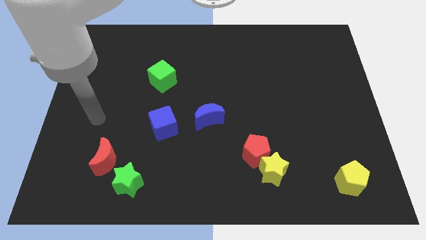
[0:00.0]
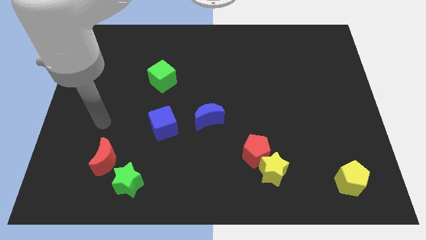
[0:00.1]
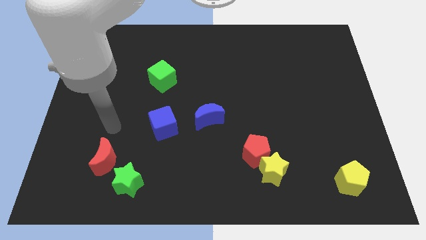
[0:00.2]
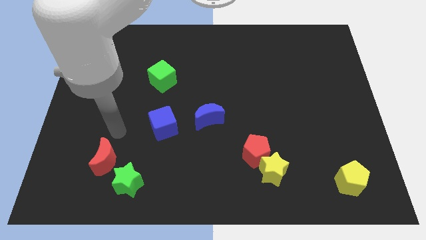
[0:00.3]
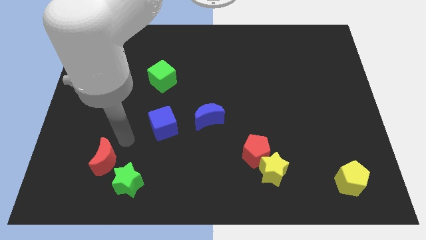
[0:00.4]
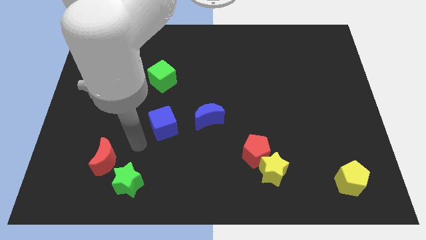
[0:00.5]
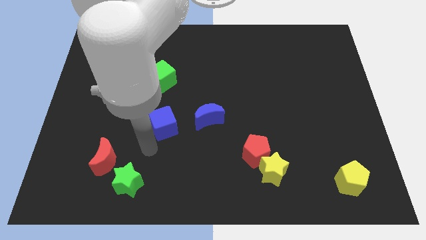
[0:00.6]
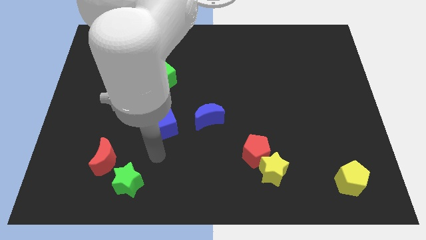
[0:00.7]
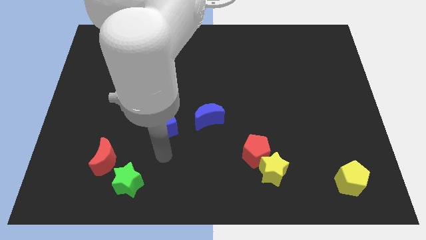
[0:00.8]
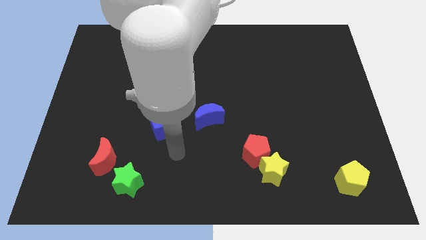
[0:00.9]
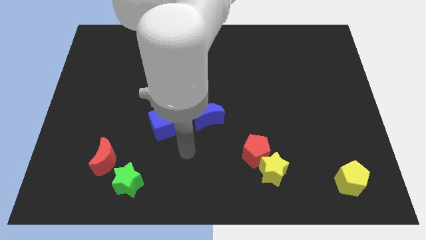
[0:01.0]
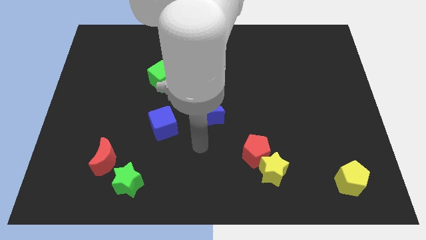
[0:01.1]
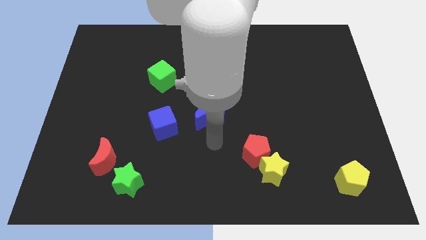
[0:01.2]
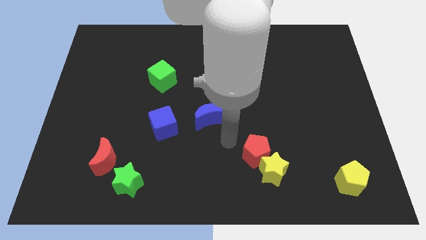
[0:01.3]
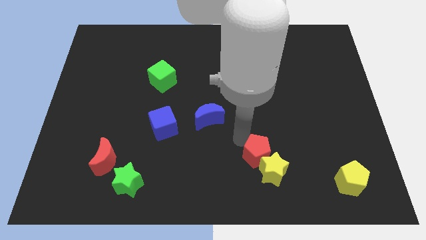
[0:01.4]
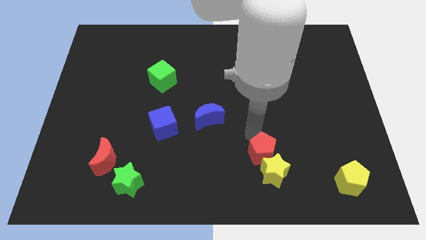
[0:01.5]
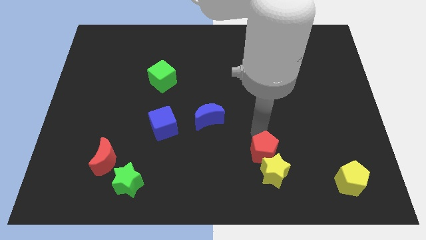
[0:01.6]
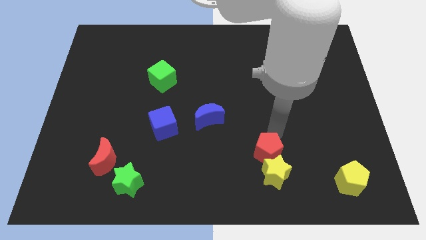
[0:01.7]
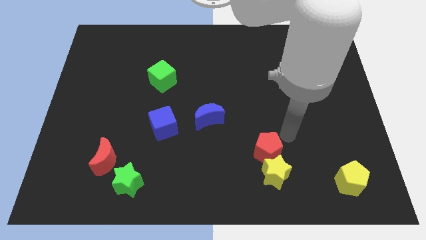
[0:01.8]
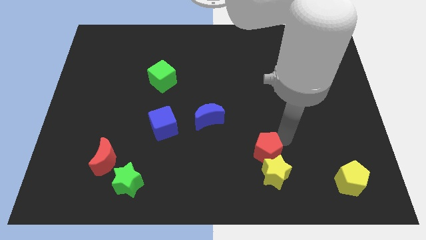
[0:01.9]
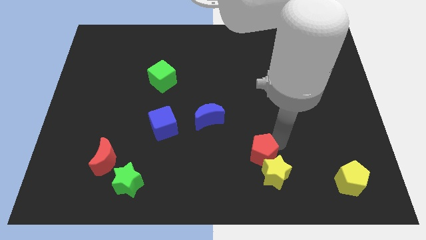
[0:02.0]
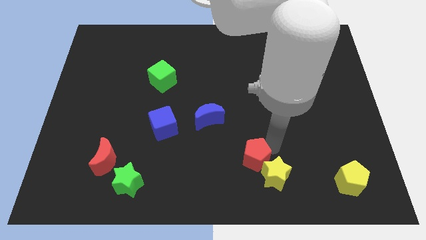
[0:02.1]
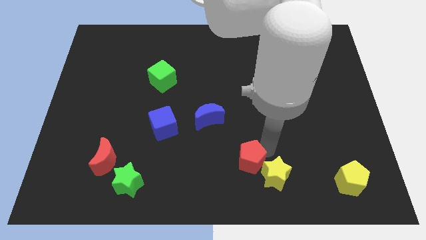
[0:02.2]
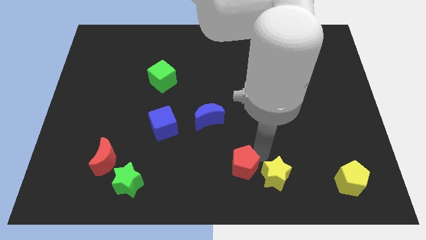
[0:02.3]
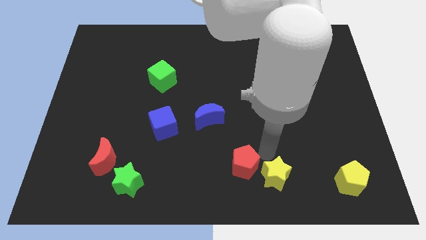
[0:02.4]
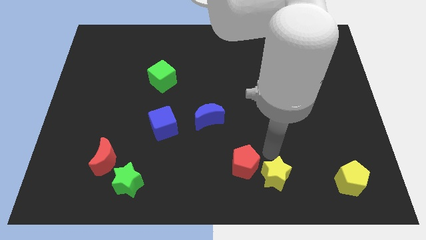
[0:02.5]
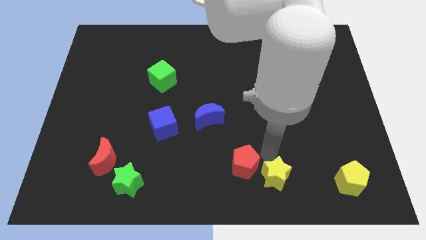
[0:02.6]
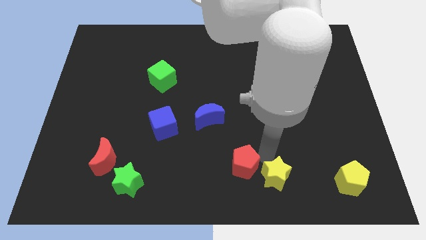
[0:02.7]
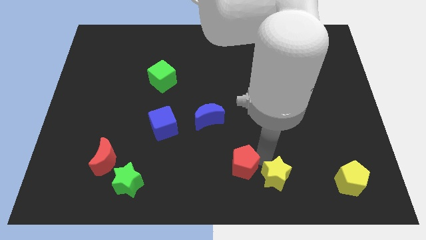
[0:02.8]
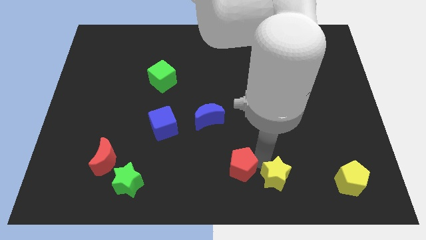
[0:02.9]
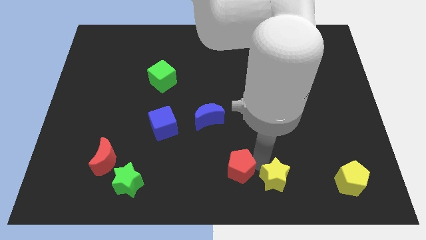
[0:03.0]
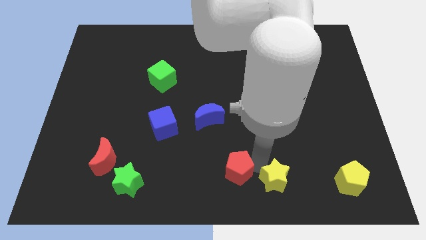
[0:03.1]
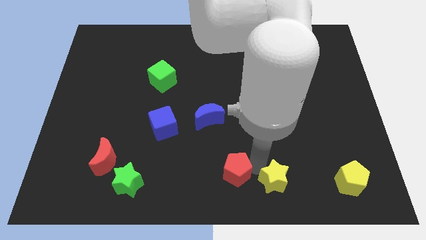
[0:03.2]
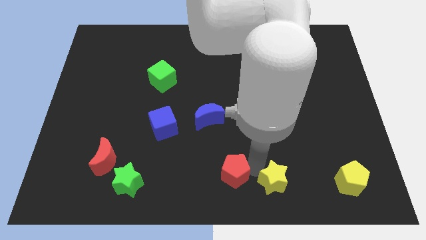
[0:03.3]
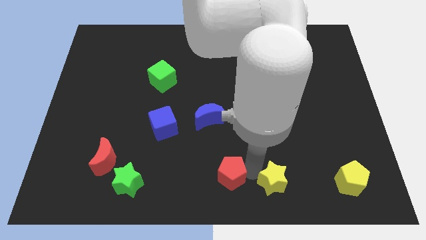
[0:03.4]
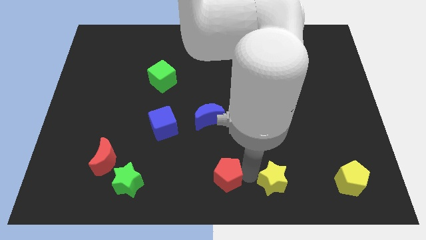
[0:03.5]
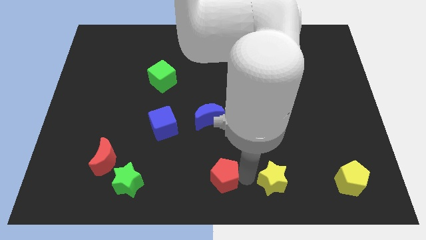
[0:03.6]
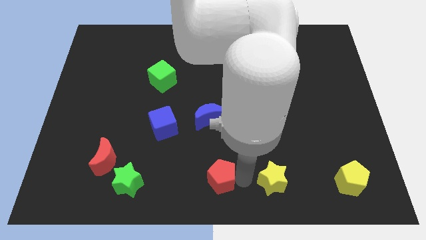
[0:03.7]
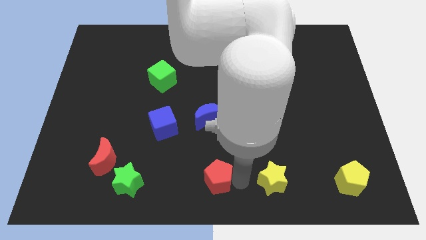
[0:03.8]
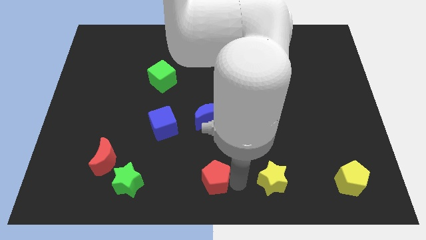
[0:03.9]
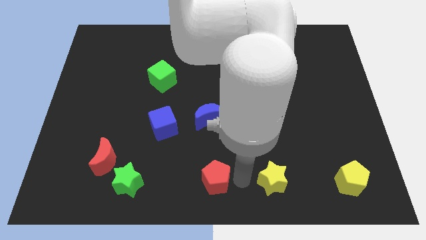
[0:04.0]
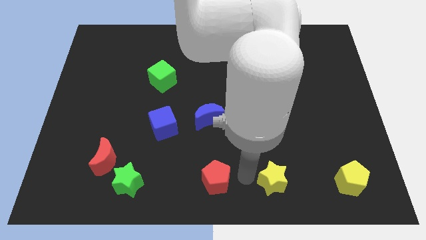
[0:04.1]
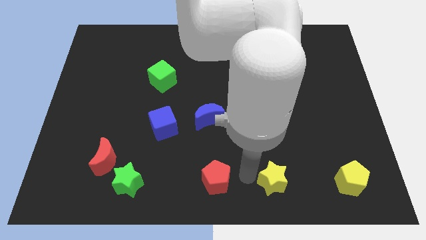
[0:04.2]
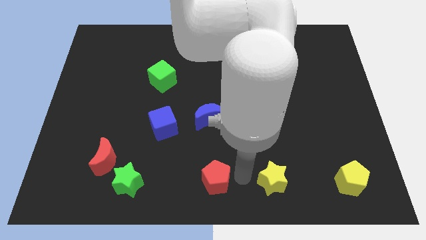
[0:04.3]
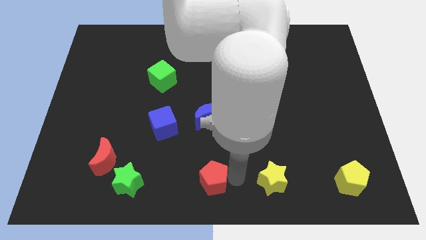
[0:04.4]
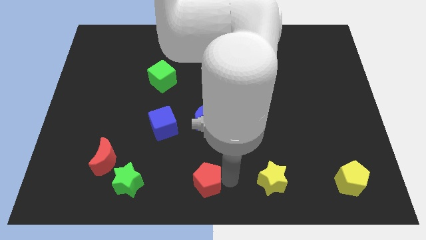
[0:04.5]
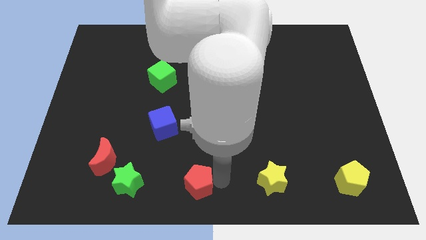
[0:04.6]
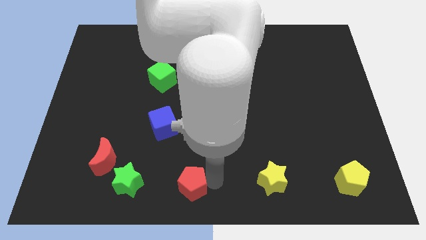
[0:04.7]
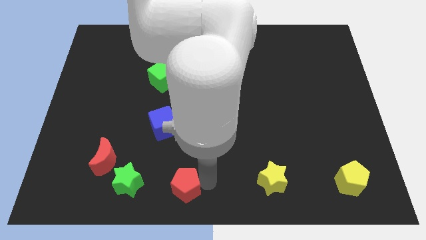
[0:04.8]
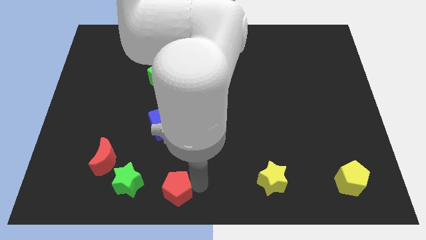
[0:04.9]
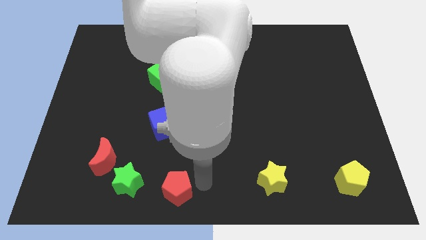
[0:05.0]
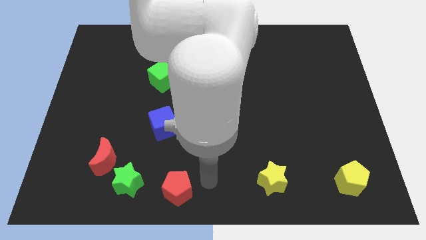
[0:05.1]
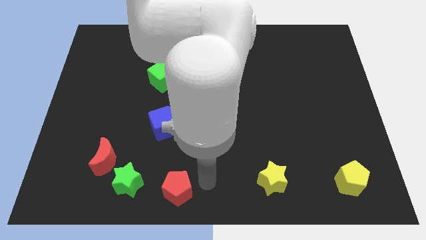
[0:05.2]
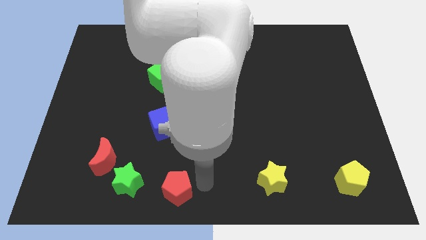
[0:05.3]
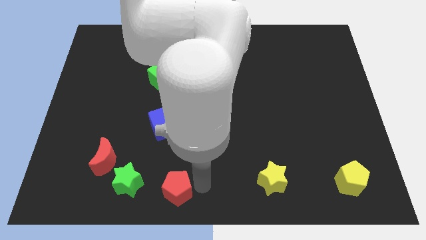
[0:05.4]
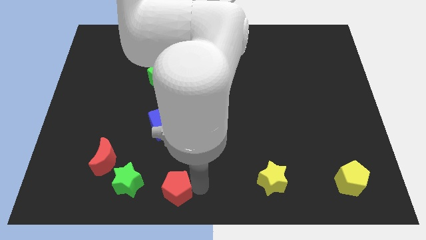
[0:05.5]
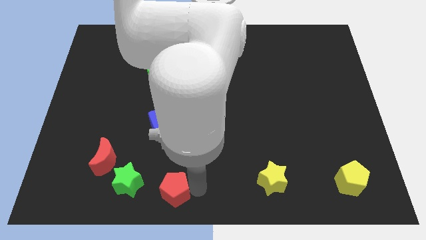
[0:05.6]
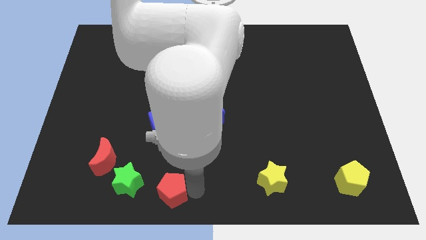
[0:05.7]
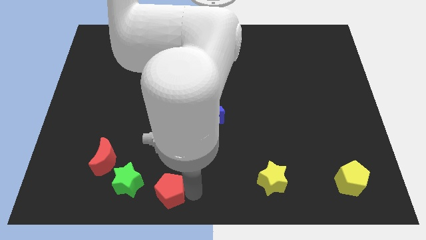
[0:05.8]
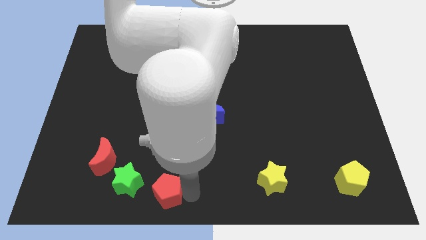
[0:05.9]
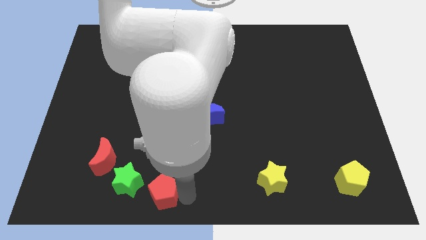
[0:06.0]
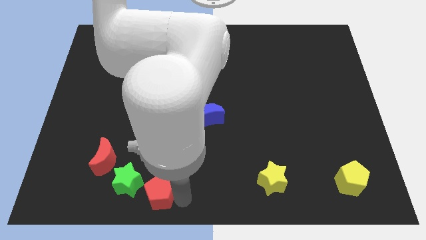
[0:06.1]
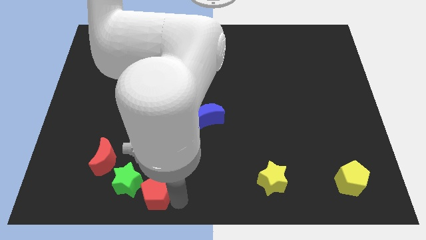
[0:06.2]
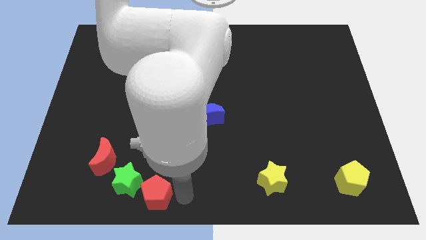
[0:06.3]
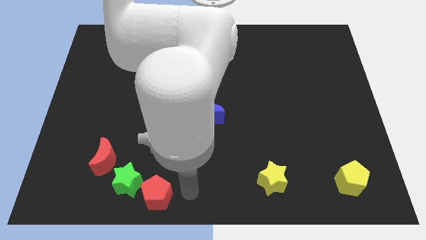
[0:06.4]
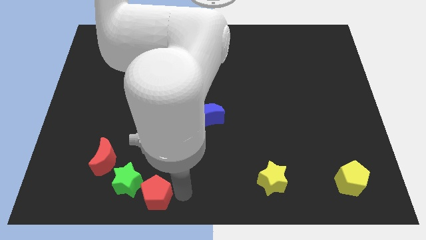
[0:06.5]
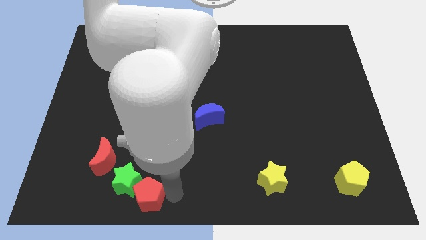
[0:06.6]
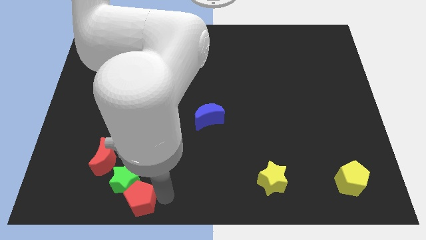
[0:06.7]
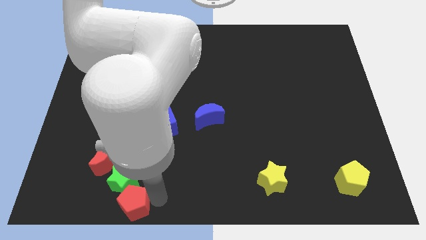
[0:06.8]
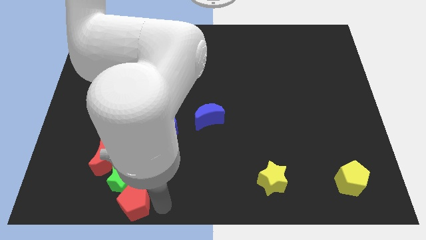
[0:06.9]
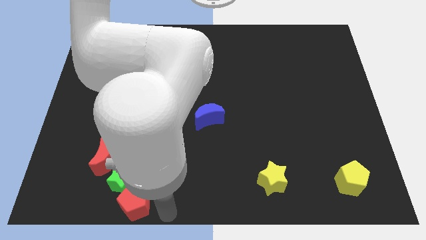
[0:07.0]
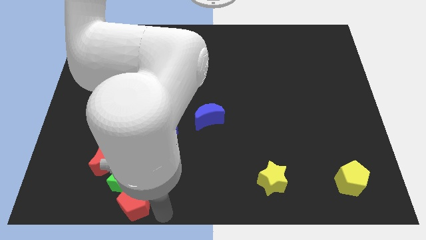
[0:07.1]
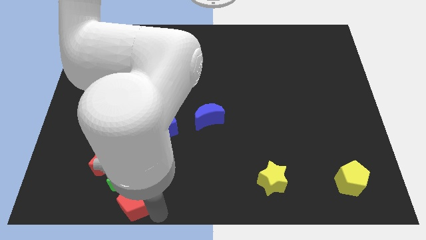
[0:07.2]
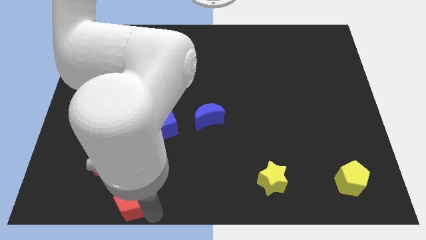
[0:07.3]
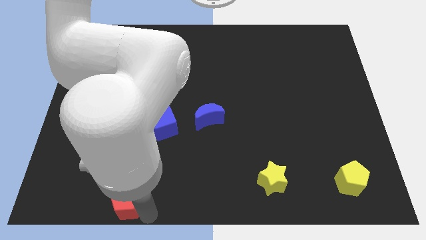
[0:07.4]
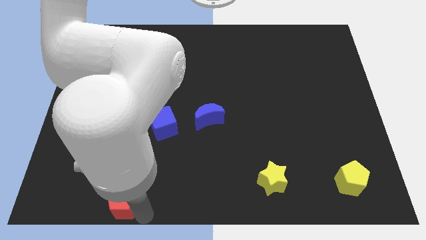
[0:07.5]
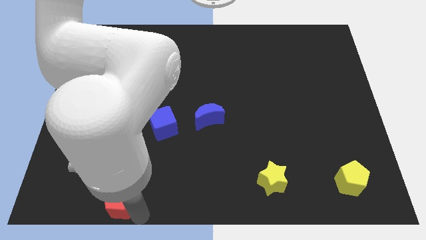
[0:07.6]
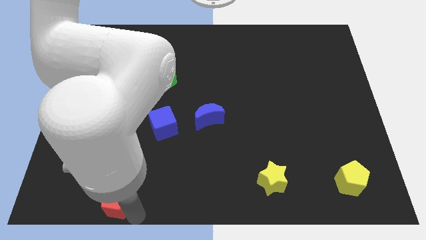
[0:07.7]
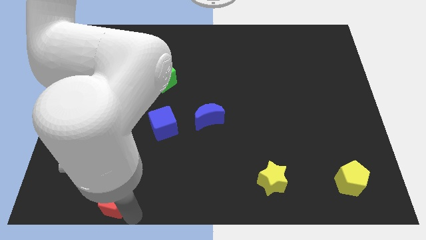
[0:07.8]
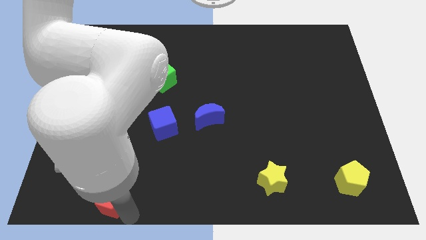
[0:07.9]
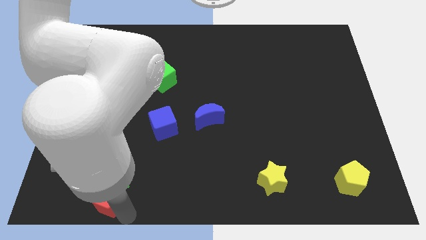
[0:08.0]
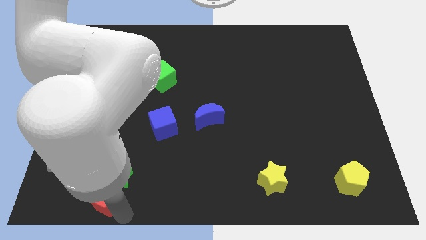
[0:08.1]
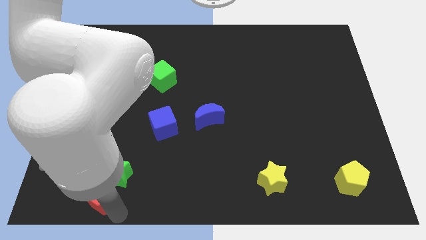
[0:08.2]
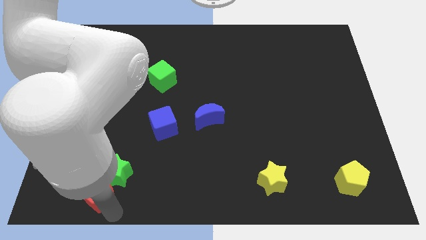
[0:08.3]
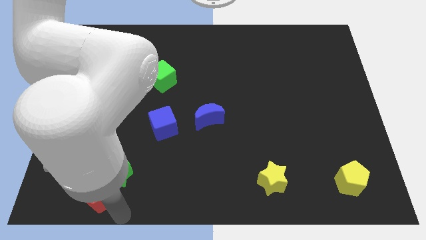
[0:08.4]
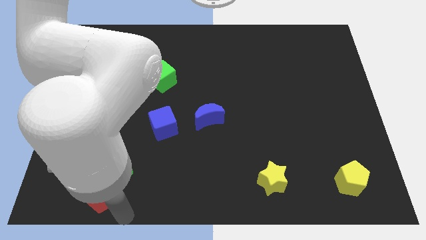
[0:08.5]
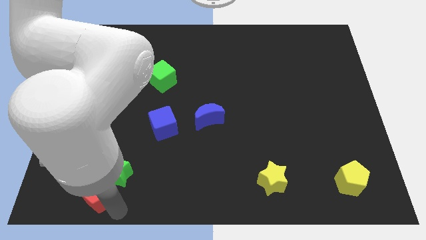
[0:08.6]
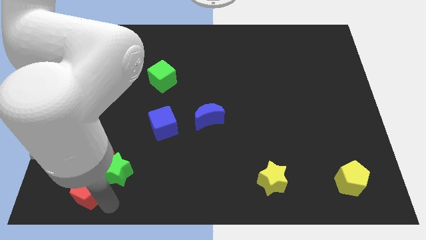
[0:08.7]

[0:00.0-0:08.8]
put the red pentagon to the left of the green star
